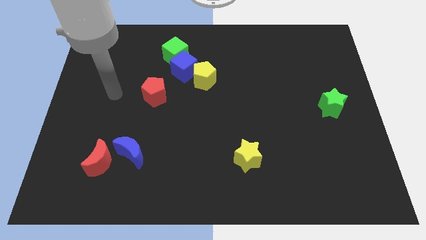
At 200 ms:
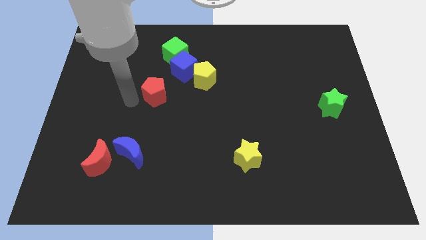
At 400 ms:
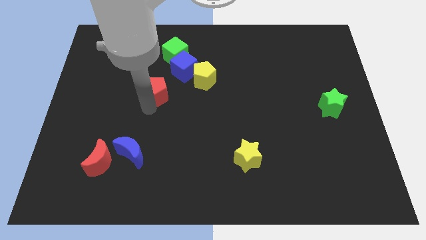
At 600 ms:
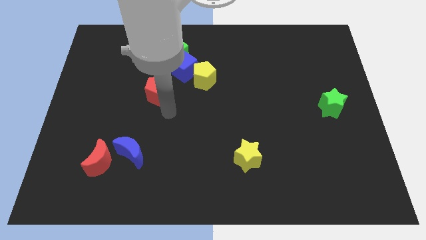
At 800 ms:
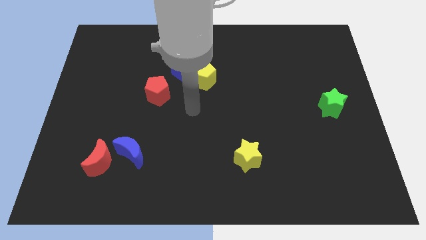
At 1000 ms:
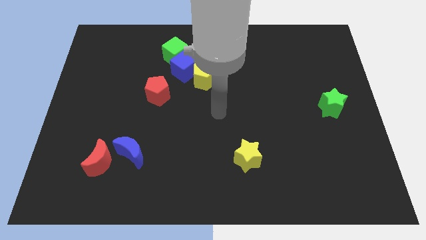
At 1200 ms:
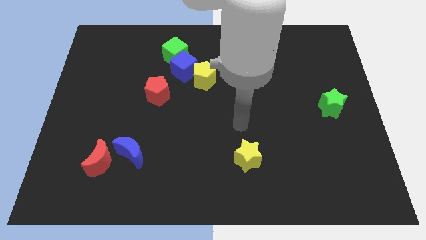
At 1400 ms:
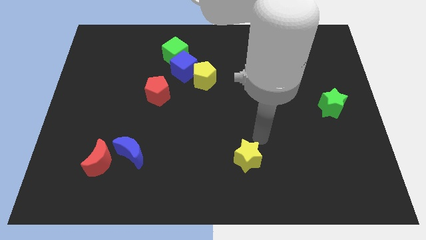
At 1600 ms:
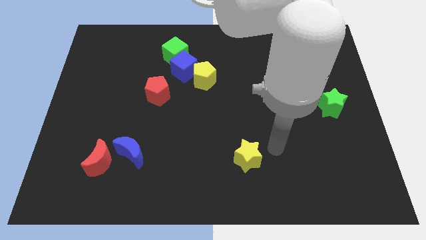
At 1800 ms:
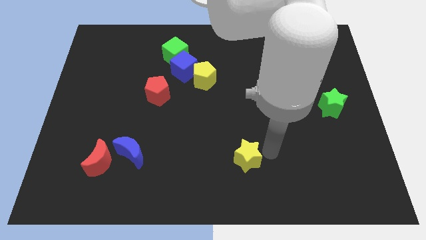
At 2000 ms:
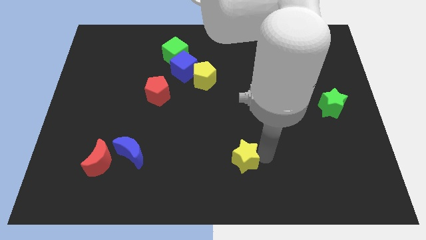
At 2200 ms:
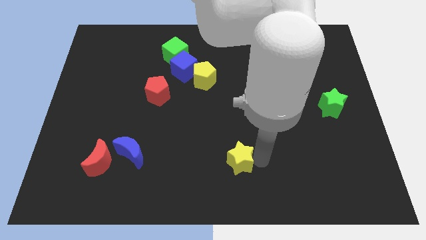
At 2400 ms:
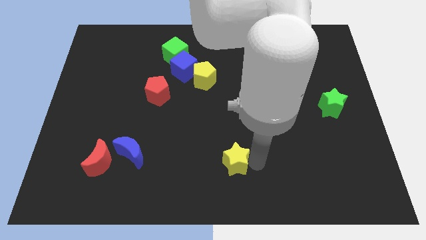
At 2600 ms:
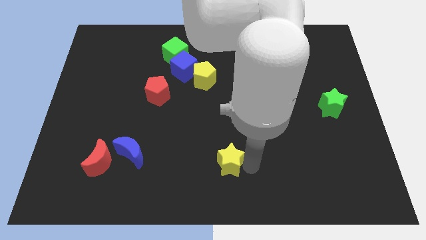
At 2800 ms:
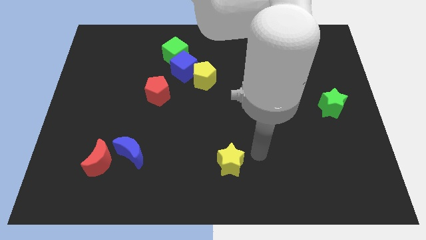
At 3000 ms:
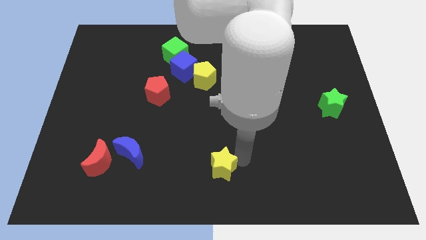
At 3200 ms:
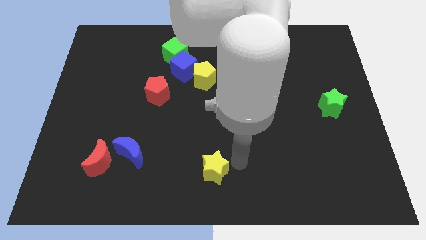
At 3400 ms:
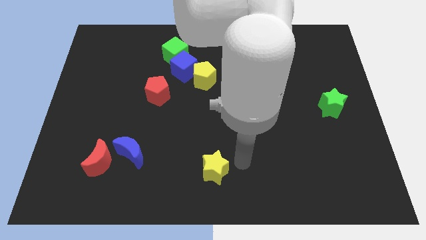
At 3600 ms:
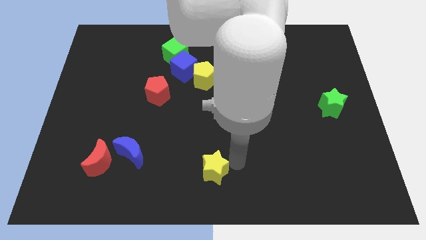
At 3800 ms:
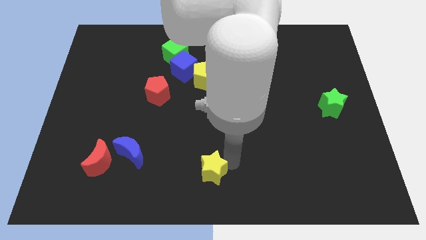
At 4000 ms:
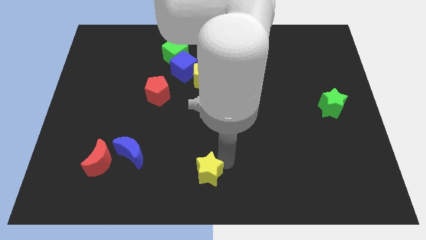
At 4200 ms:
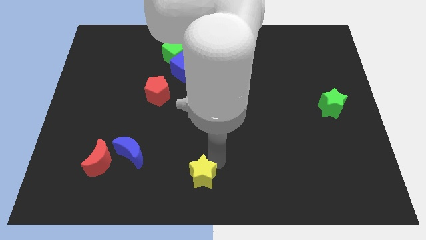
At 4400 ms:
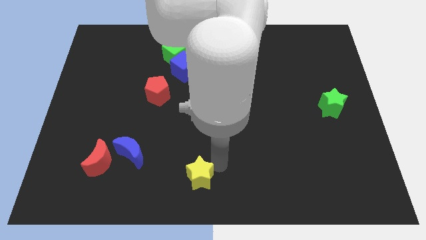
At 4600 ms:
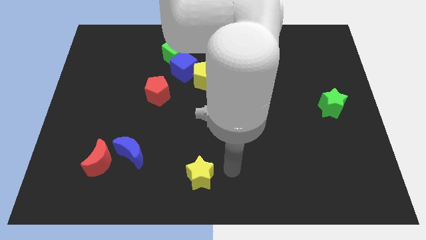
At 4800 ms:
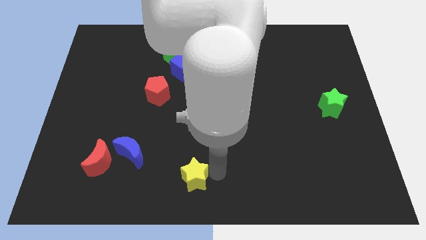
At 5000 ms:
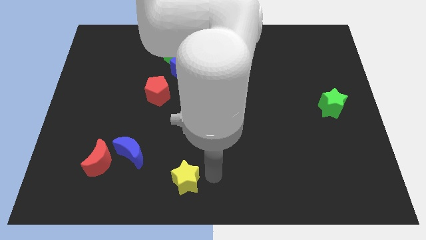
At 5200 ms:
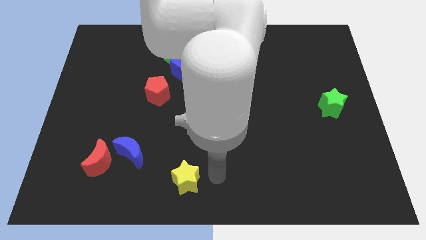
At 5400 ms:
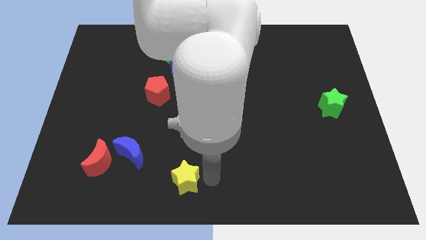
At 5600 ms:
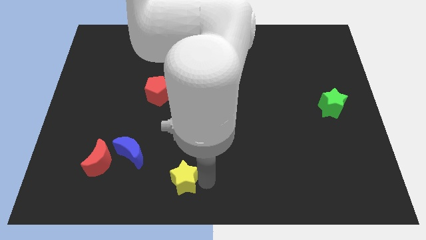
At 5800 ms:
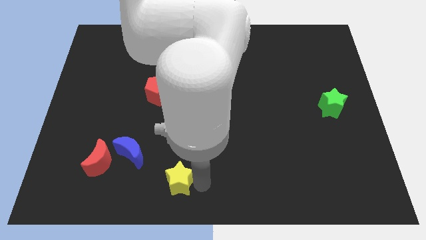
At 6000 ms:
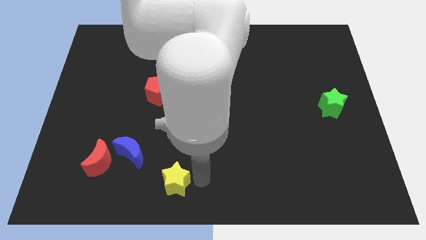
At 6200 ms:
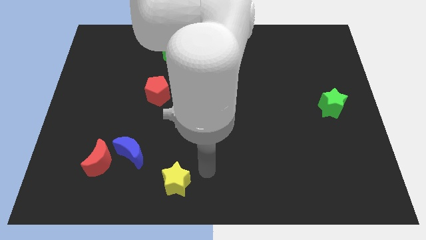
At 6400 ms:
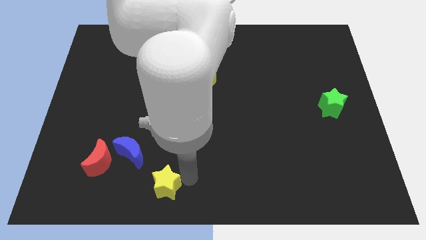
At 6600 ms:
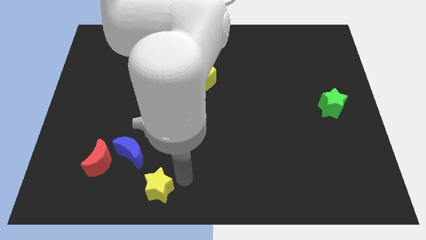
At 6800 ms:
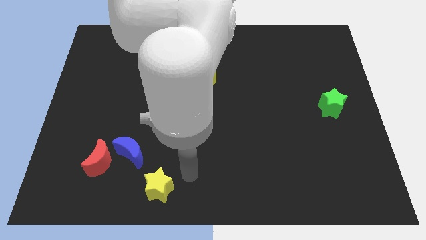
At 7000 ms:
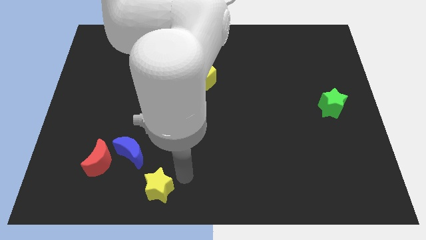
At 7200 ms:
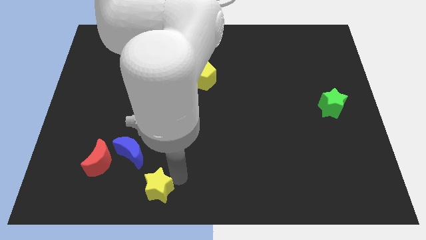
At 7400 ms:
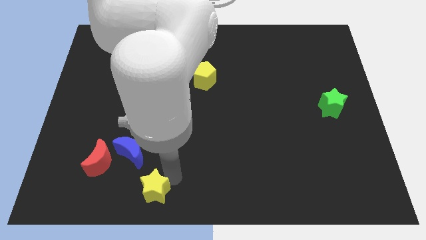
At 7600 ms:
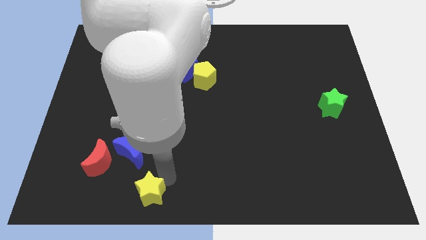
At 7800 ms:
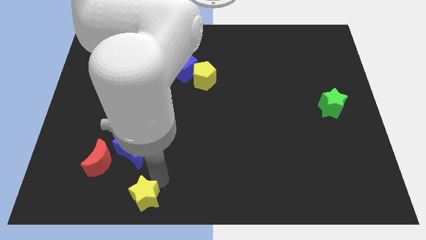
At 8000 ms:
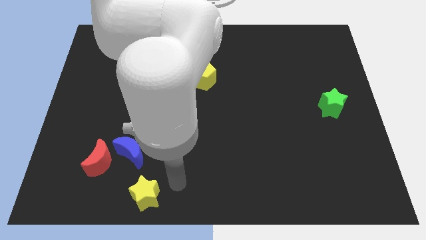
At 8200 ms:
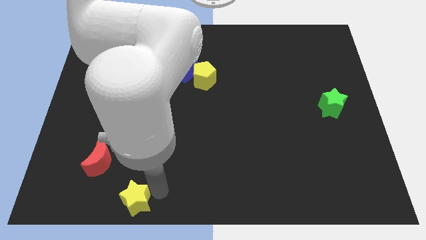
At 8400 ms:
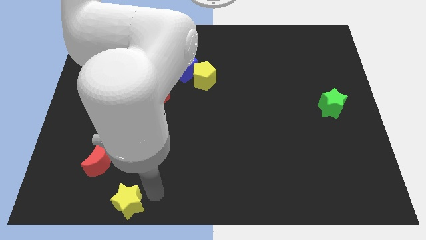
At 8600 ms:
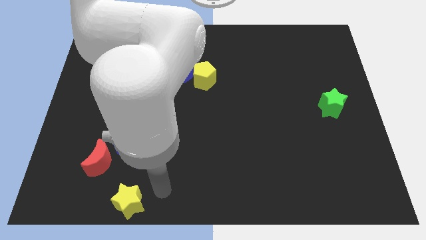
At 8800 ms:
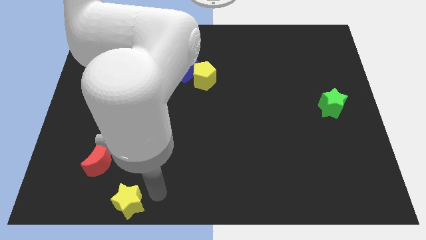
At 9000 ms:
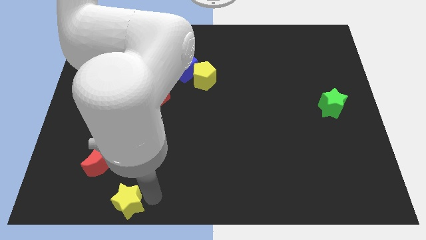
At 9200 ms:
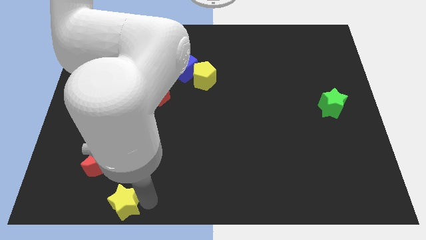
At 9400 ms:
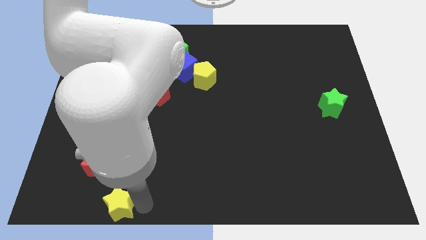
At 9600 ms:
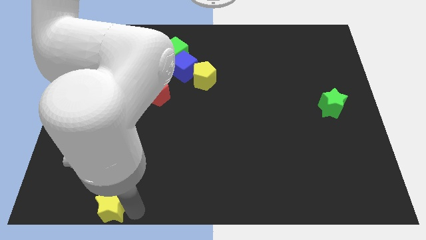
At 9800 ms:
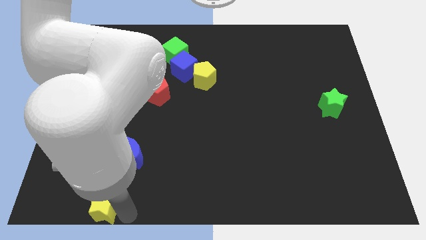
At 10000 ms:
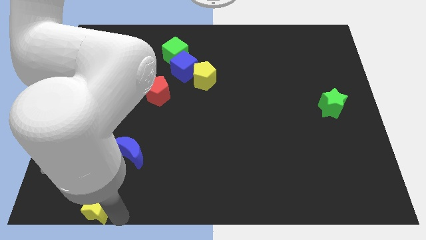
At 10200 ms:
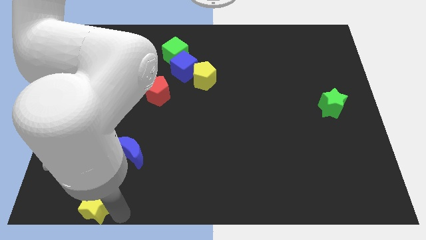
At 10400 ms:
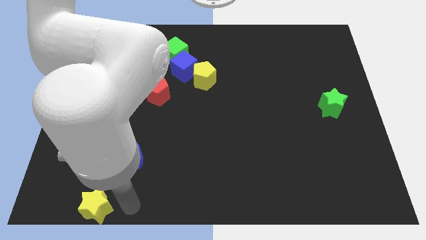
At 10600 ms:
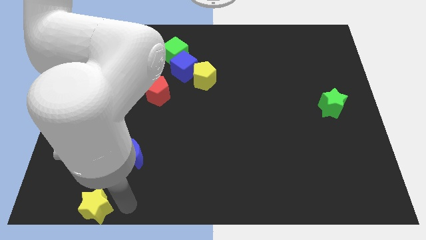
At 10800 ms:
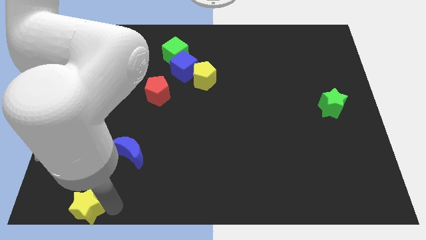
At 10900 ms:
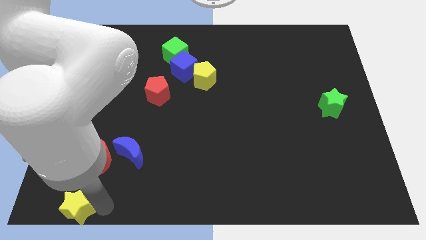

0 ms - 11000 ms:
push the yellow star to the lower left corner

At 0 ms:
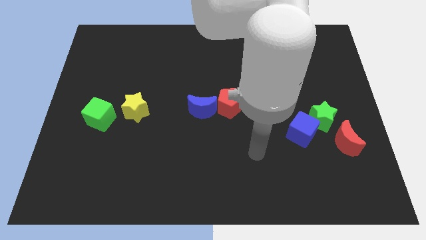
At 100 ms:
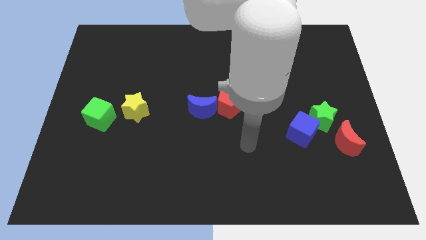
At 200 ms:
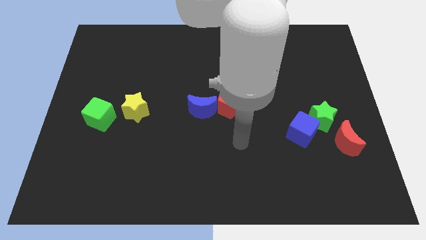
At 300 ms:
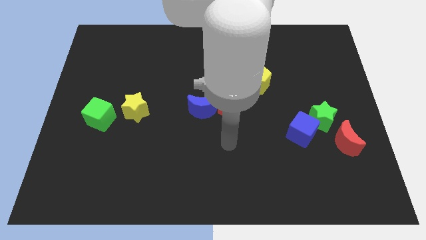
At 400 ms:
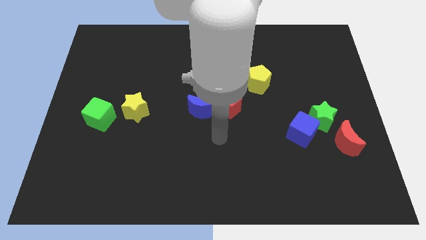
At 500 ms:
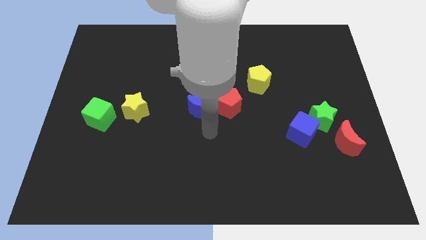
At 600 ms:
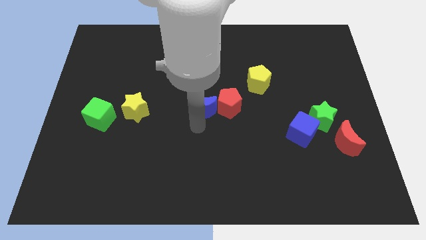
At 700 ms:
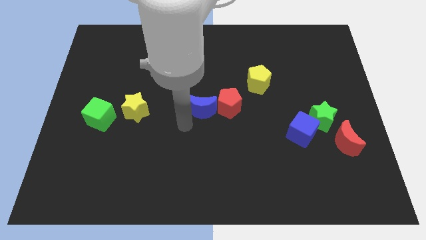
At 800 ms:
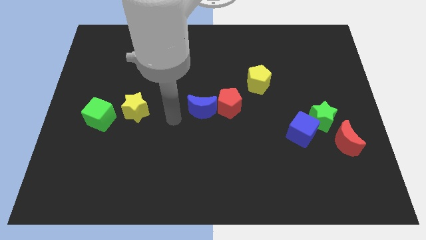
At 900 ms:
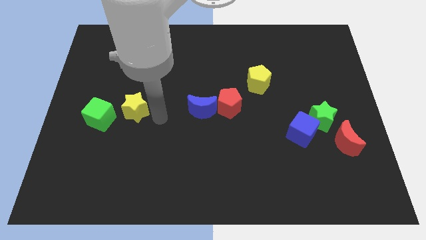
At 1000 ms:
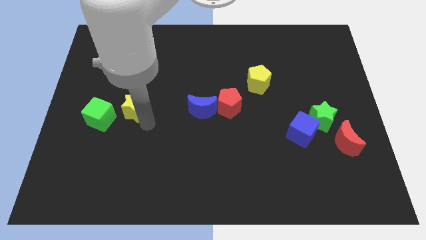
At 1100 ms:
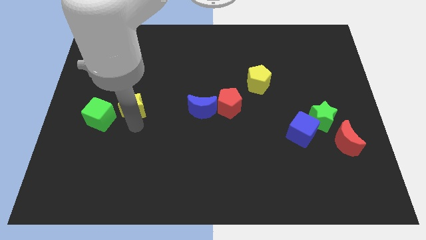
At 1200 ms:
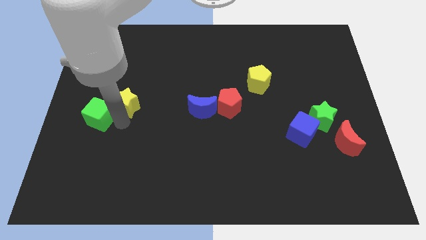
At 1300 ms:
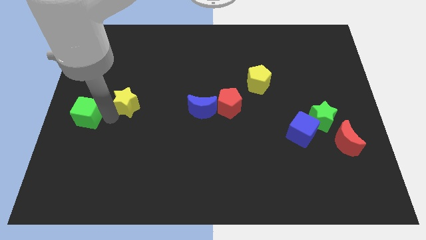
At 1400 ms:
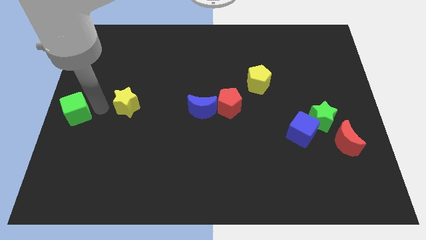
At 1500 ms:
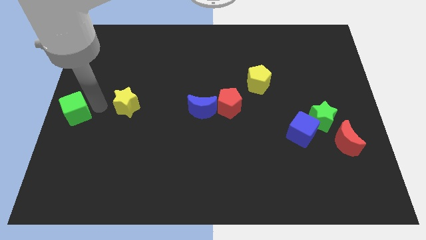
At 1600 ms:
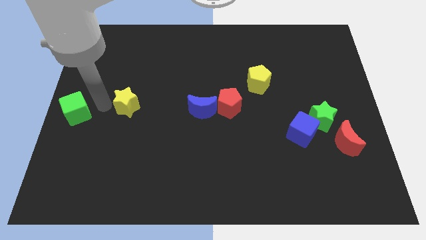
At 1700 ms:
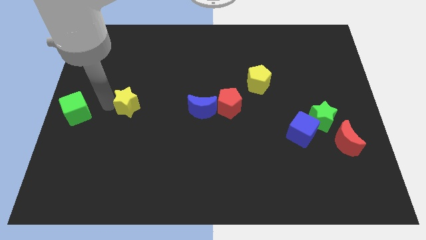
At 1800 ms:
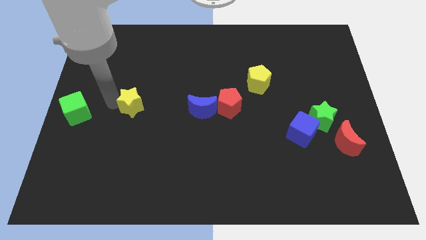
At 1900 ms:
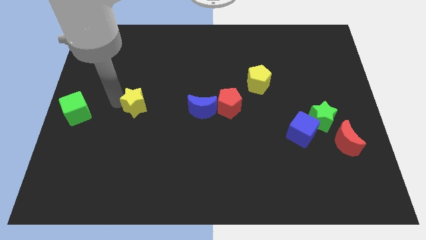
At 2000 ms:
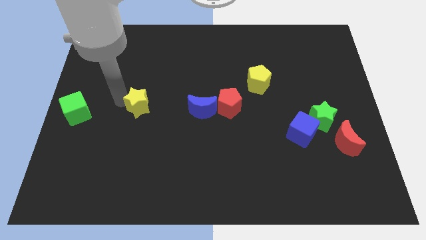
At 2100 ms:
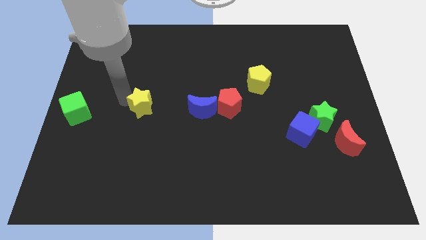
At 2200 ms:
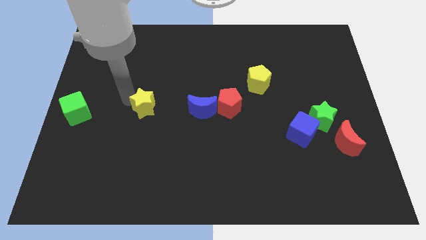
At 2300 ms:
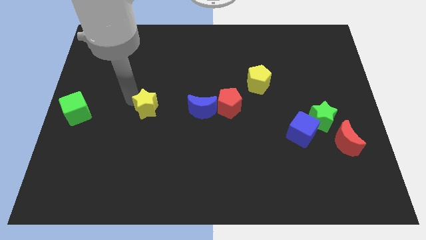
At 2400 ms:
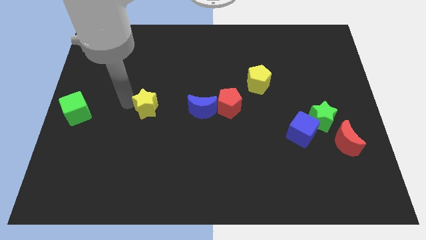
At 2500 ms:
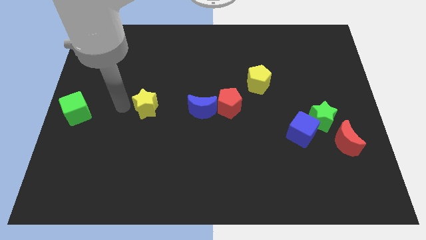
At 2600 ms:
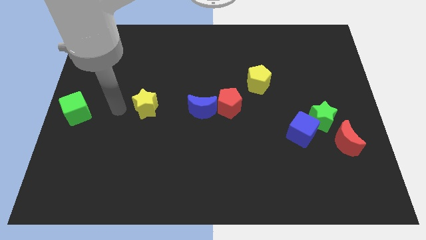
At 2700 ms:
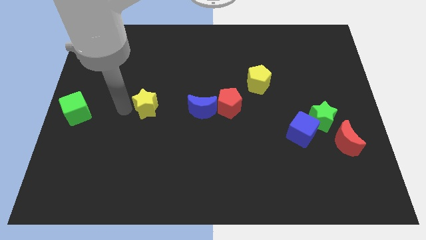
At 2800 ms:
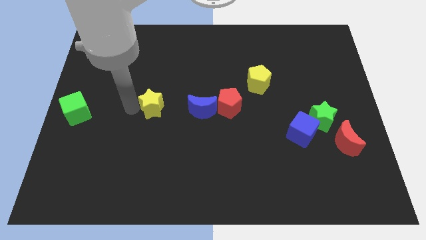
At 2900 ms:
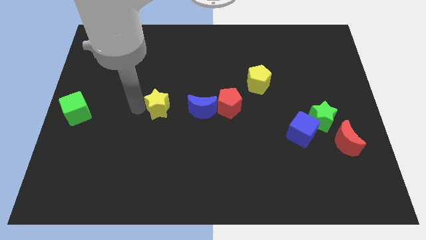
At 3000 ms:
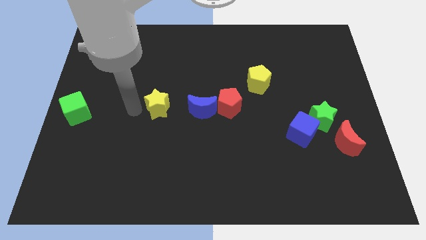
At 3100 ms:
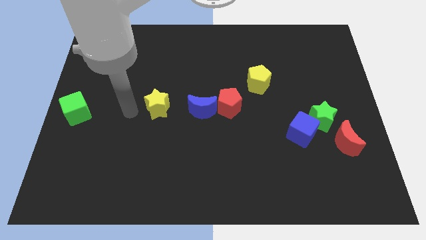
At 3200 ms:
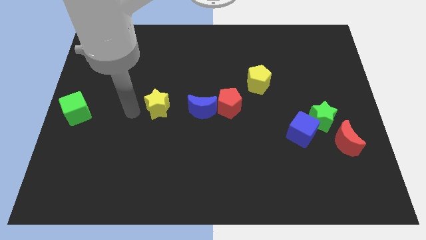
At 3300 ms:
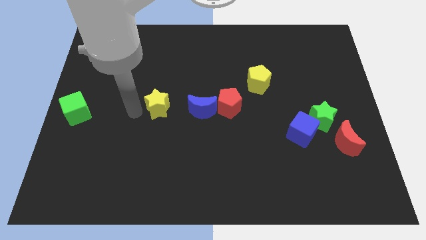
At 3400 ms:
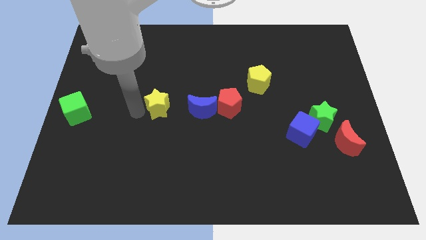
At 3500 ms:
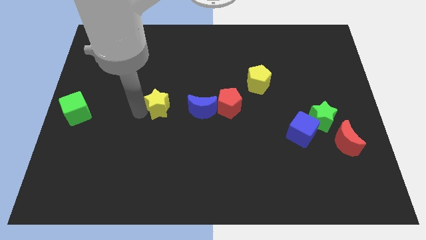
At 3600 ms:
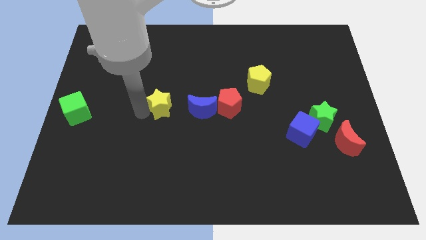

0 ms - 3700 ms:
put the yellow star to the center
